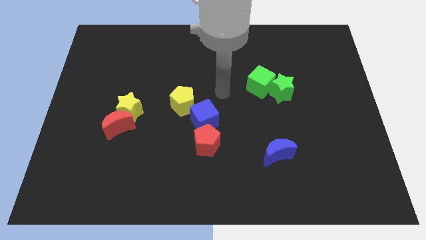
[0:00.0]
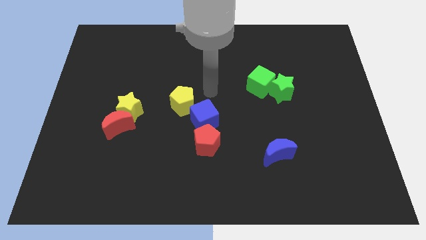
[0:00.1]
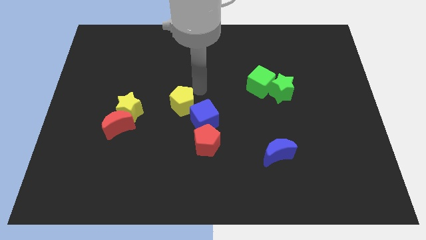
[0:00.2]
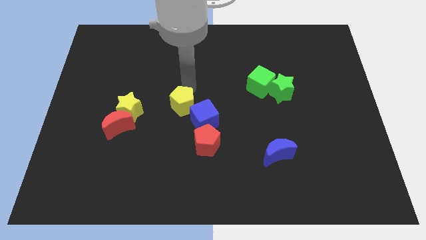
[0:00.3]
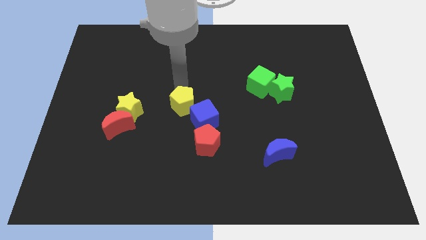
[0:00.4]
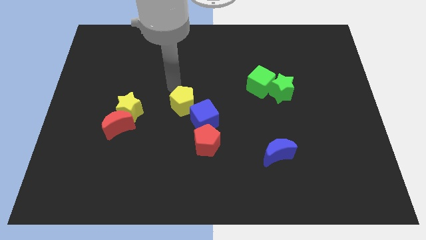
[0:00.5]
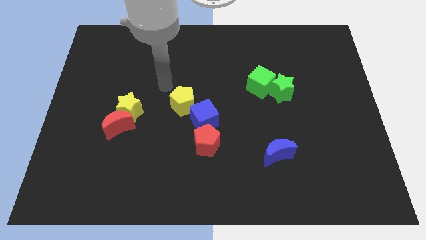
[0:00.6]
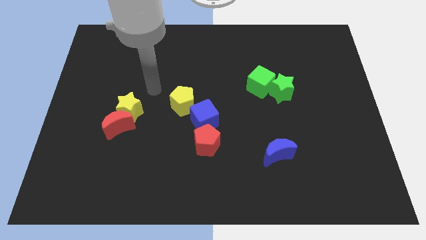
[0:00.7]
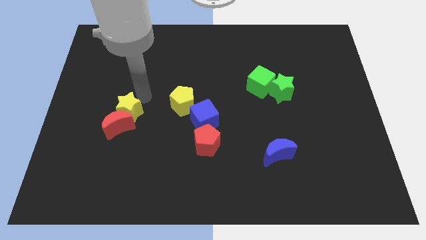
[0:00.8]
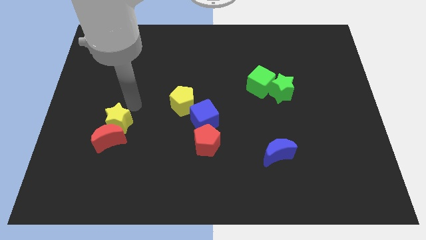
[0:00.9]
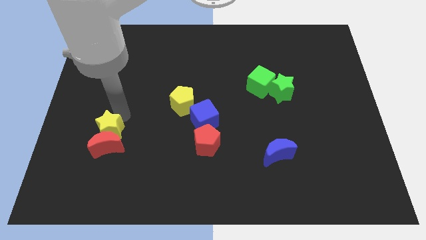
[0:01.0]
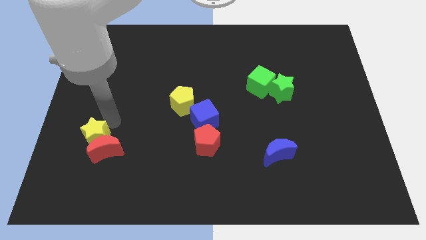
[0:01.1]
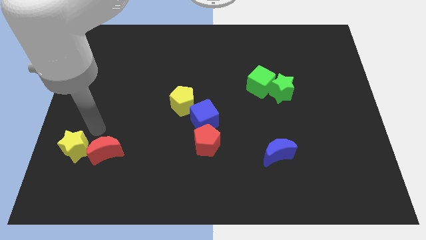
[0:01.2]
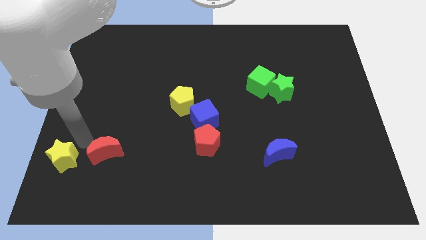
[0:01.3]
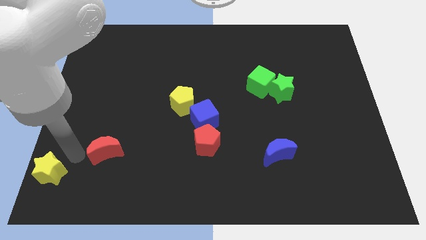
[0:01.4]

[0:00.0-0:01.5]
pull the red moon apart from the yellow star

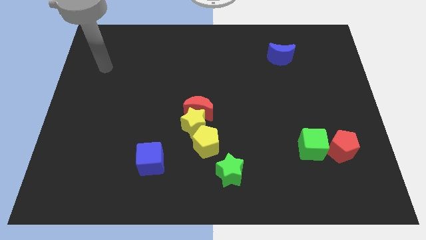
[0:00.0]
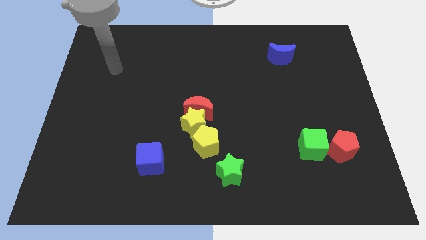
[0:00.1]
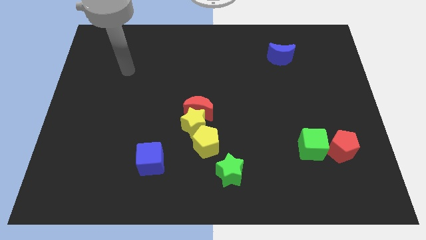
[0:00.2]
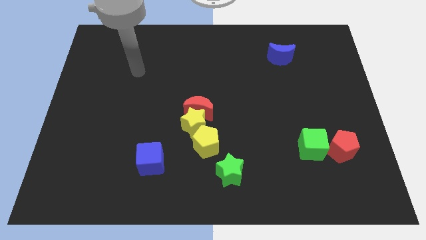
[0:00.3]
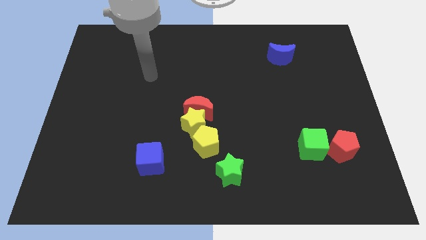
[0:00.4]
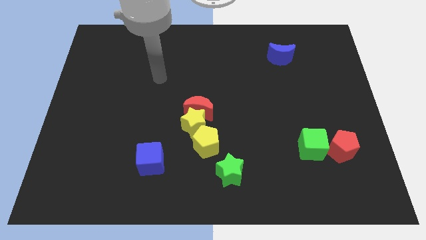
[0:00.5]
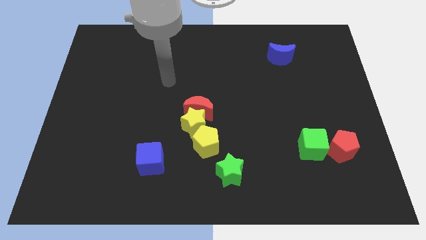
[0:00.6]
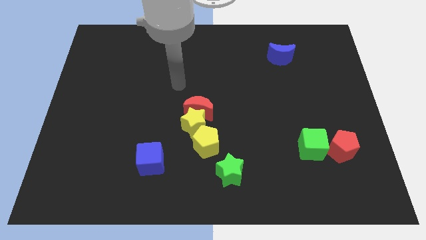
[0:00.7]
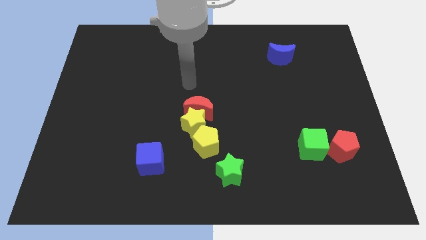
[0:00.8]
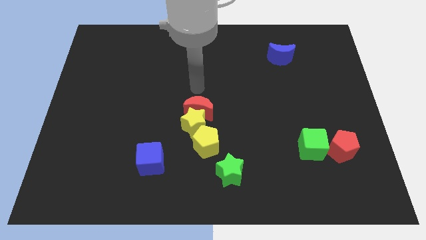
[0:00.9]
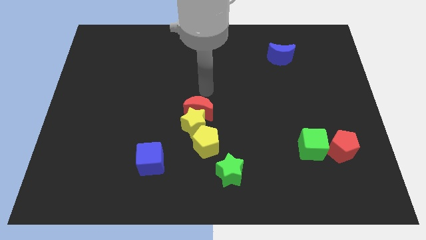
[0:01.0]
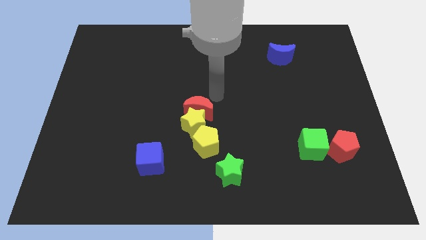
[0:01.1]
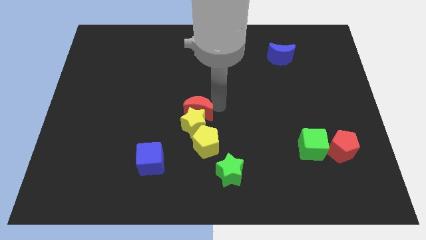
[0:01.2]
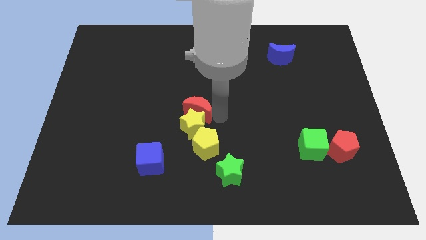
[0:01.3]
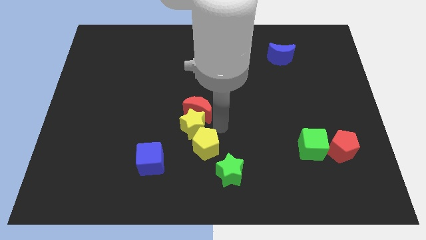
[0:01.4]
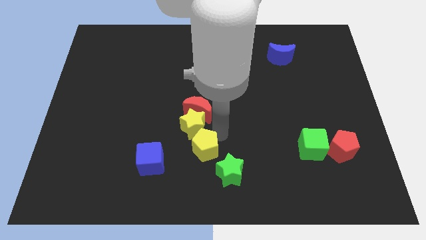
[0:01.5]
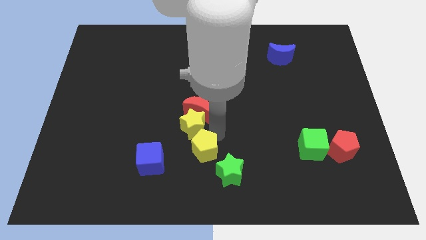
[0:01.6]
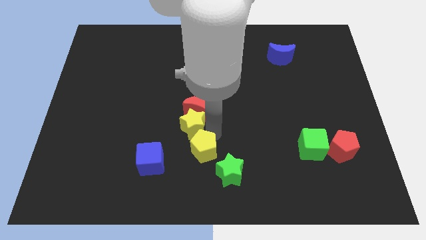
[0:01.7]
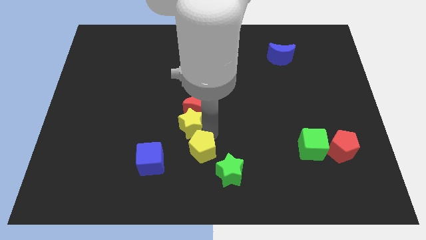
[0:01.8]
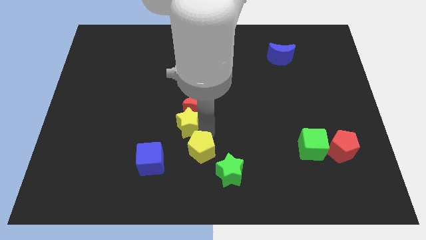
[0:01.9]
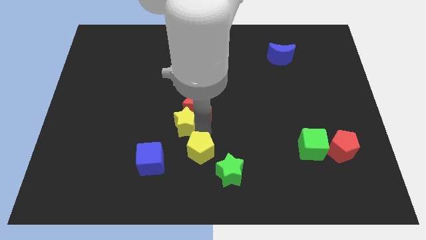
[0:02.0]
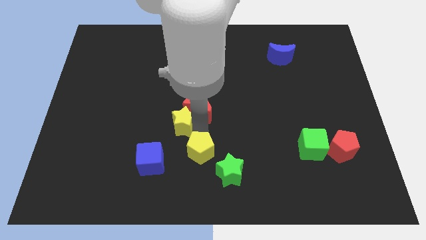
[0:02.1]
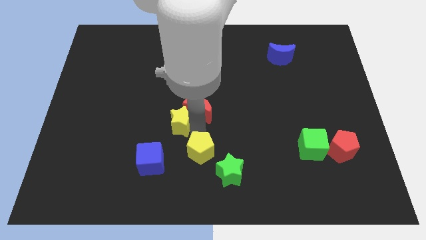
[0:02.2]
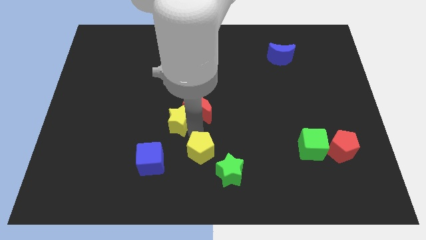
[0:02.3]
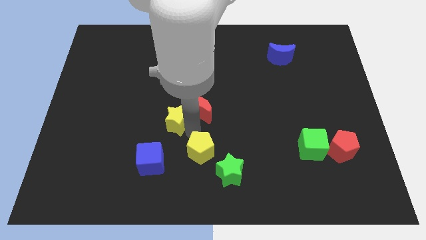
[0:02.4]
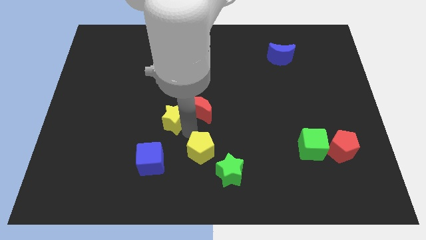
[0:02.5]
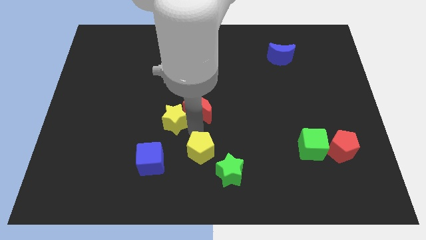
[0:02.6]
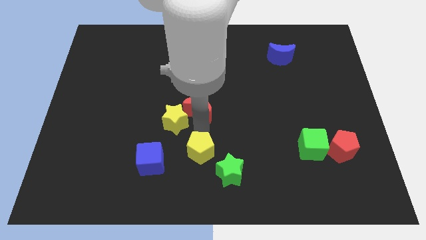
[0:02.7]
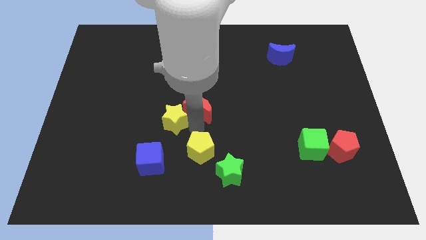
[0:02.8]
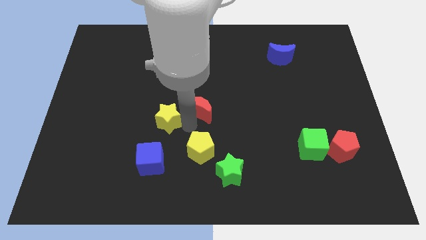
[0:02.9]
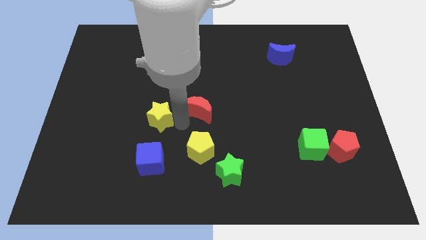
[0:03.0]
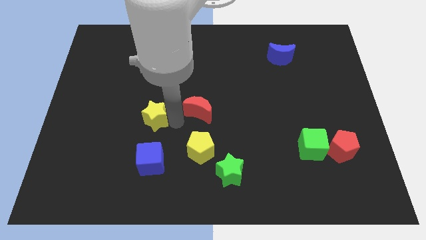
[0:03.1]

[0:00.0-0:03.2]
pull the yellow star apart from the red moon and yellow pentagon

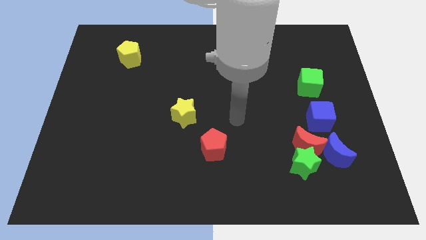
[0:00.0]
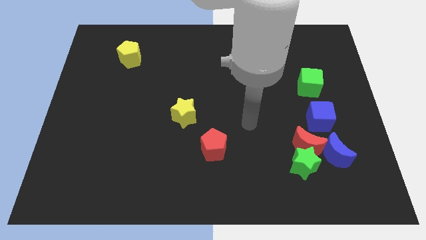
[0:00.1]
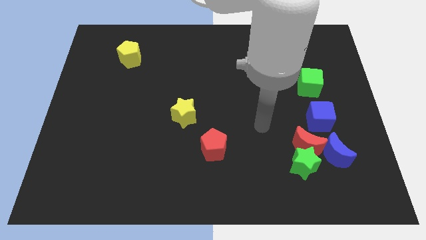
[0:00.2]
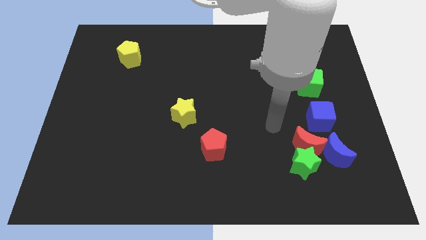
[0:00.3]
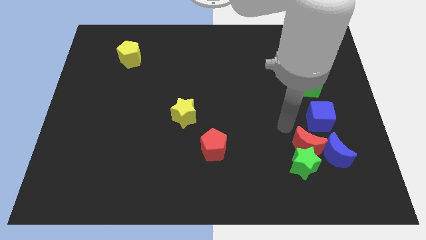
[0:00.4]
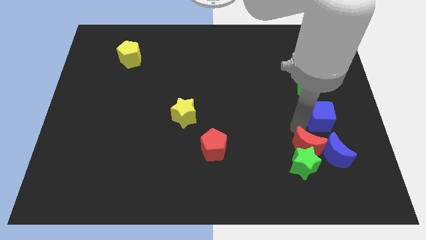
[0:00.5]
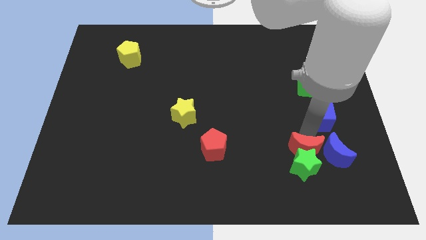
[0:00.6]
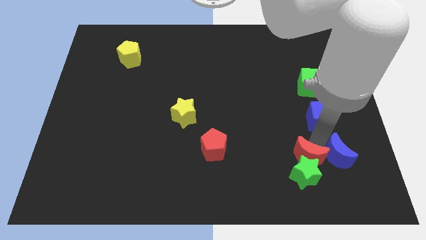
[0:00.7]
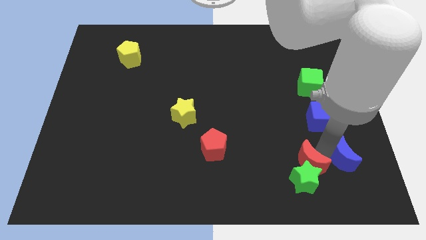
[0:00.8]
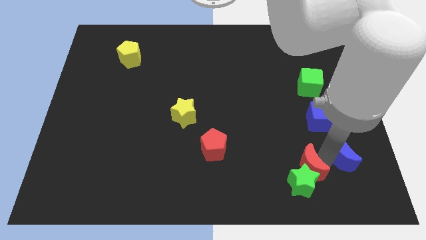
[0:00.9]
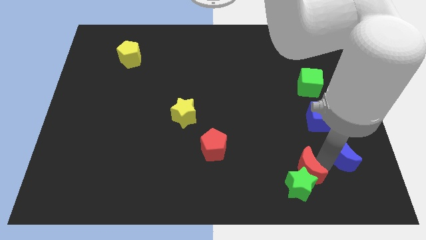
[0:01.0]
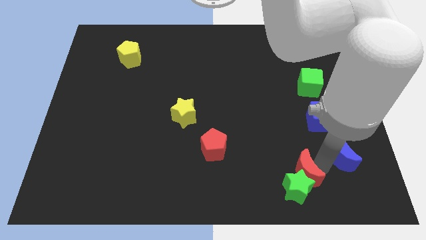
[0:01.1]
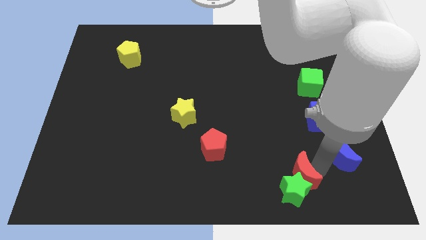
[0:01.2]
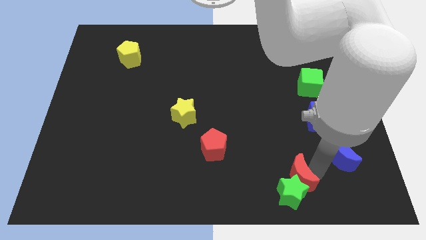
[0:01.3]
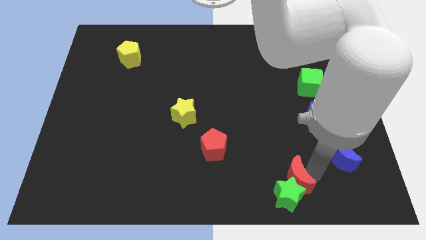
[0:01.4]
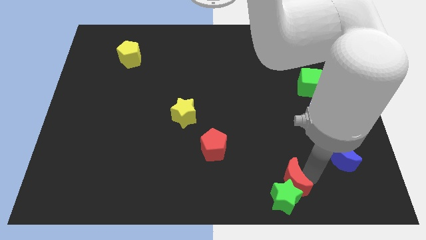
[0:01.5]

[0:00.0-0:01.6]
pull the green star apart from the red moon and blue moon

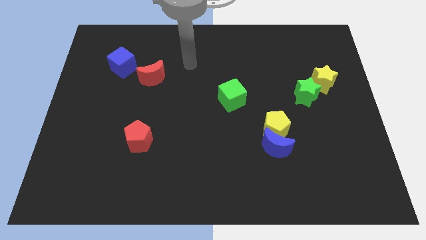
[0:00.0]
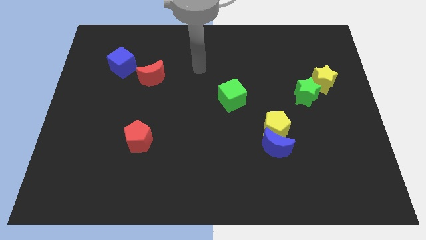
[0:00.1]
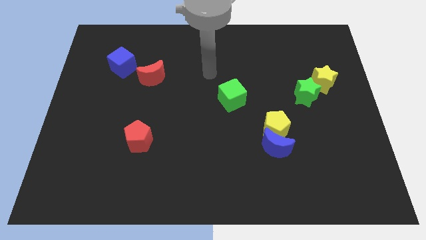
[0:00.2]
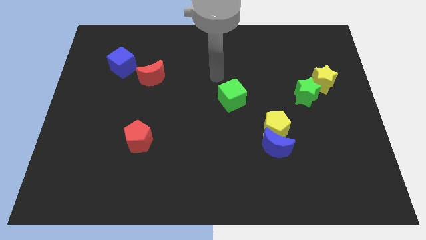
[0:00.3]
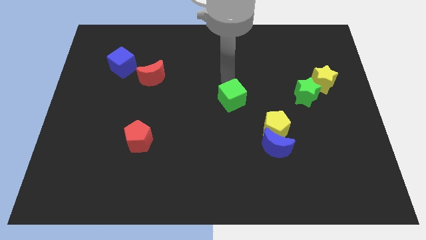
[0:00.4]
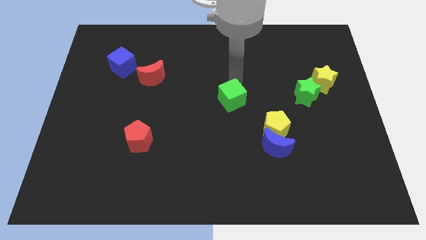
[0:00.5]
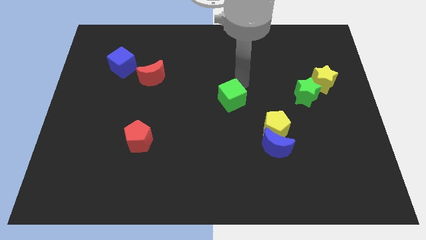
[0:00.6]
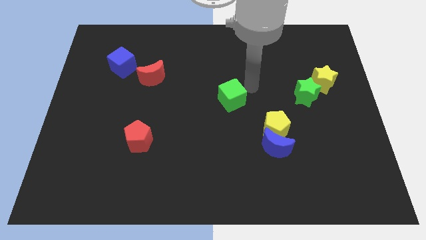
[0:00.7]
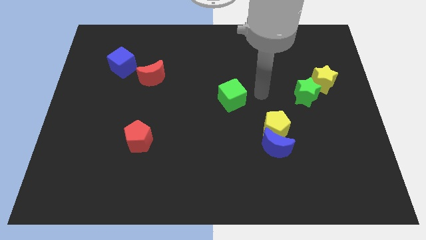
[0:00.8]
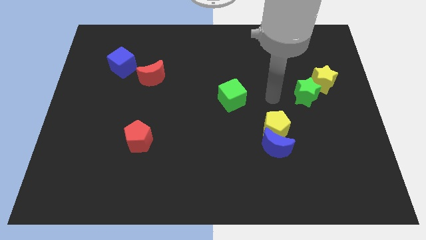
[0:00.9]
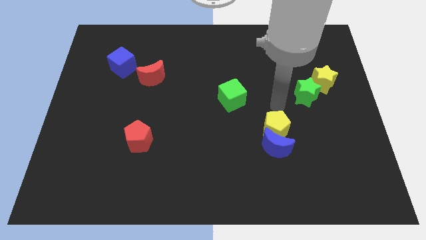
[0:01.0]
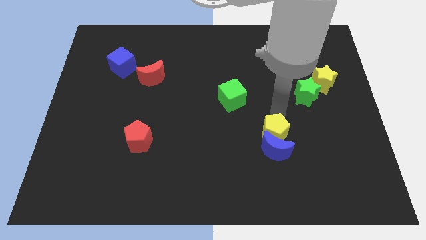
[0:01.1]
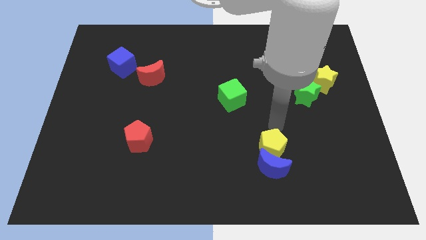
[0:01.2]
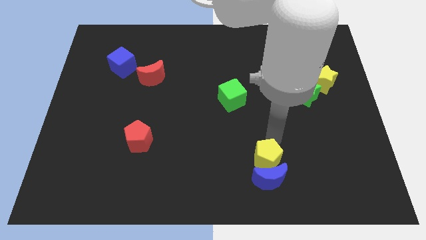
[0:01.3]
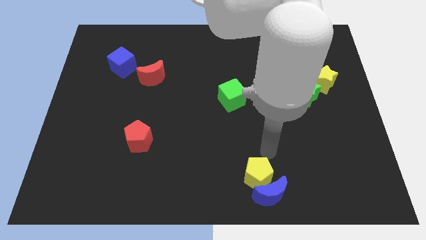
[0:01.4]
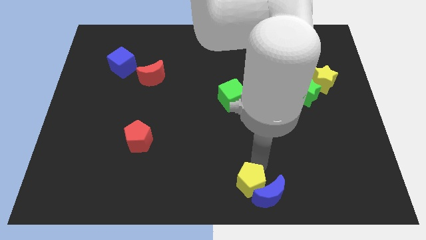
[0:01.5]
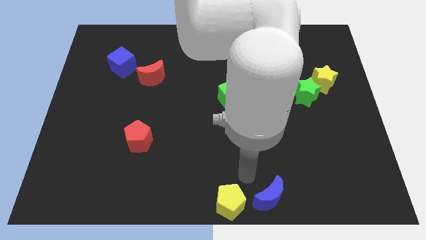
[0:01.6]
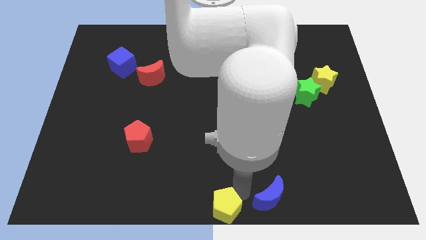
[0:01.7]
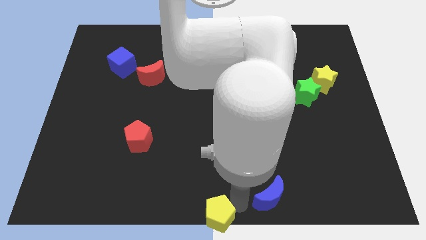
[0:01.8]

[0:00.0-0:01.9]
move the blue moon away from the yellow pentagon

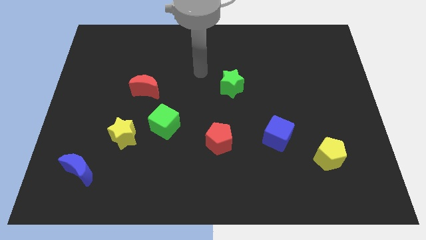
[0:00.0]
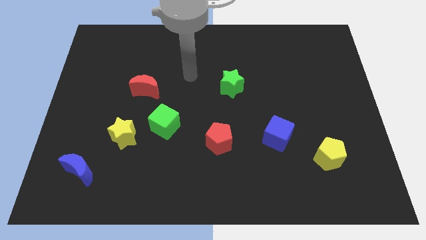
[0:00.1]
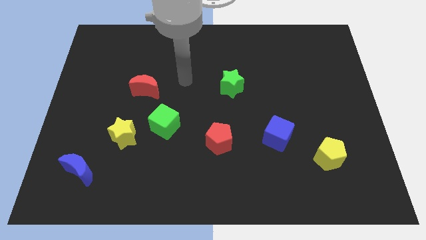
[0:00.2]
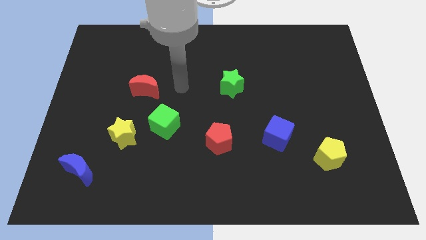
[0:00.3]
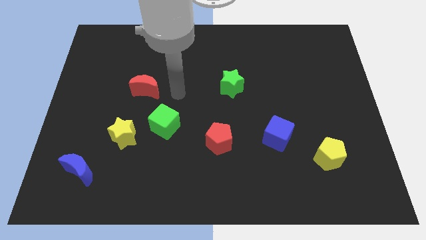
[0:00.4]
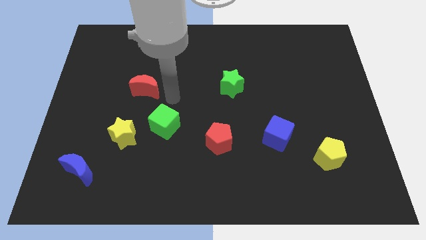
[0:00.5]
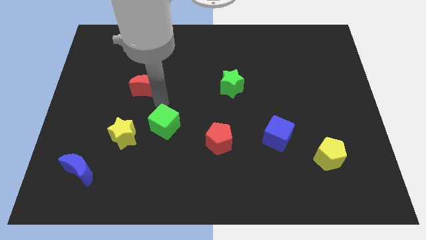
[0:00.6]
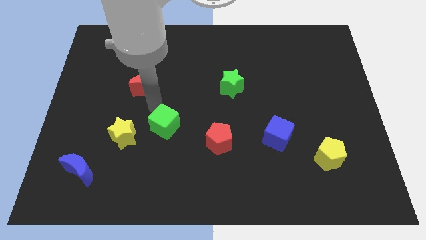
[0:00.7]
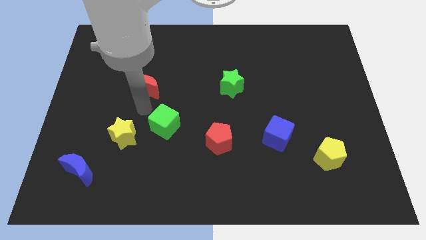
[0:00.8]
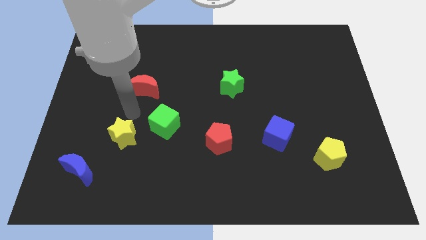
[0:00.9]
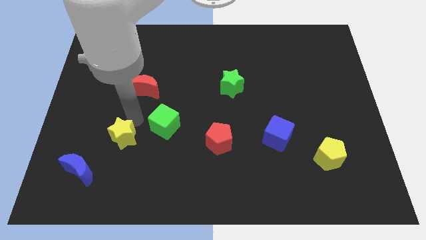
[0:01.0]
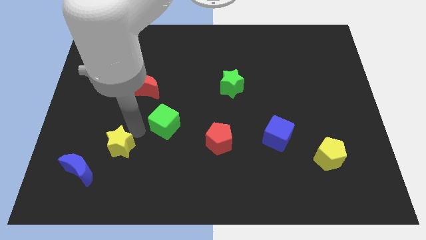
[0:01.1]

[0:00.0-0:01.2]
move the green cube away from the yellow star
